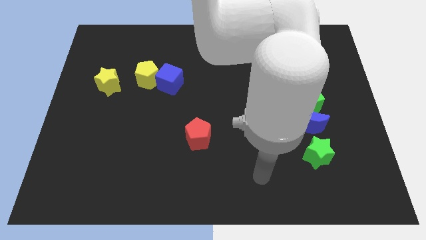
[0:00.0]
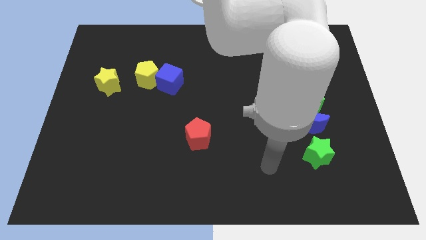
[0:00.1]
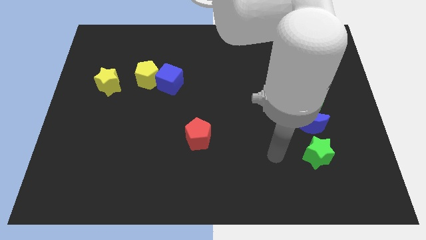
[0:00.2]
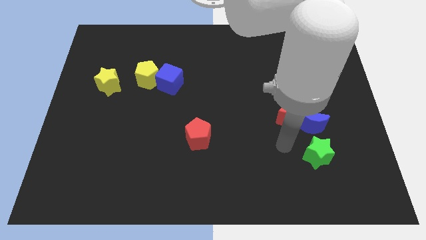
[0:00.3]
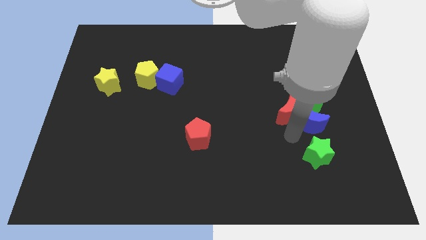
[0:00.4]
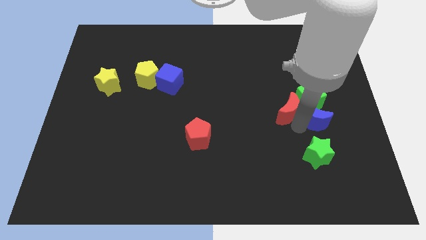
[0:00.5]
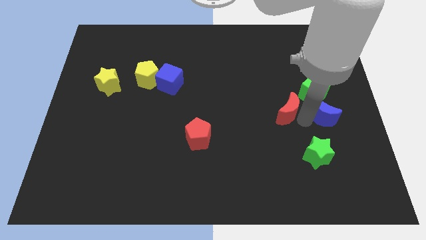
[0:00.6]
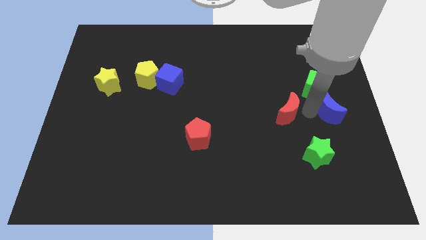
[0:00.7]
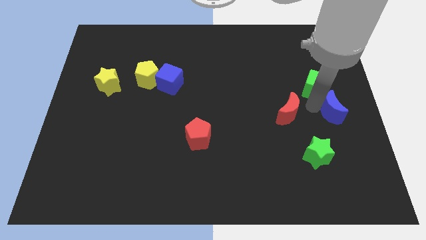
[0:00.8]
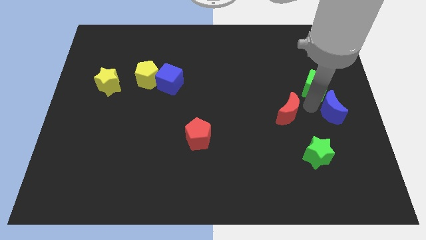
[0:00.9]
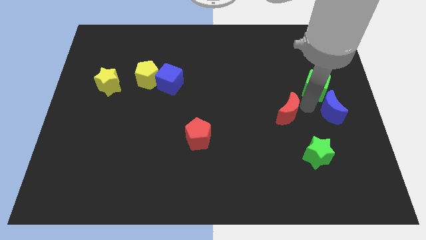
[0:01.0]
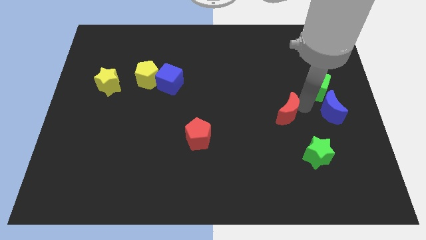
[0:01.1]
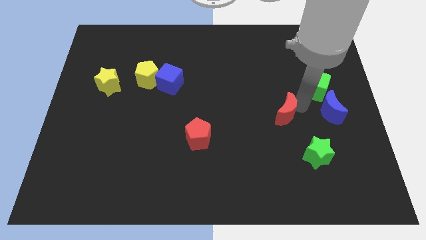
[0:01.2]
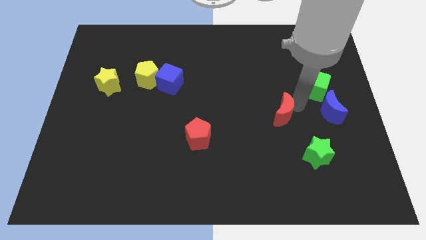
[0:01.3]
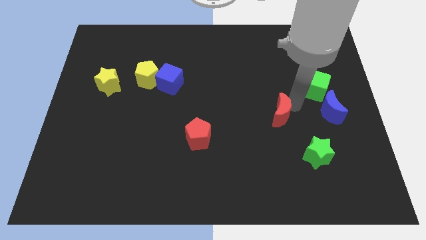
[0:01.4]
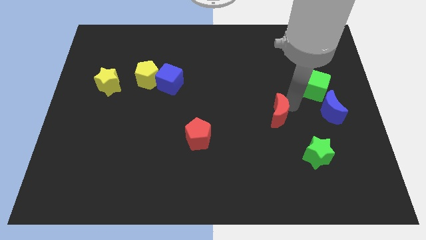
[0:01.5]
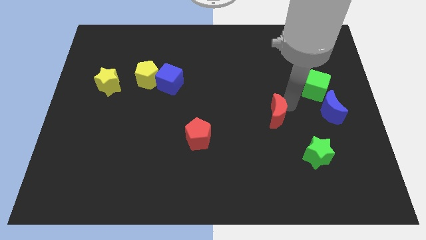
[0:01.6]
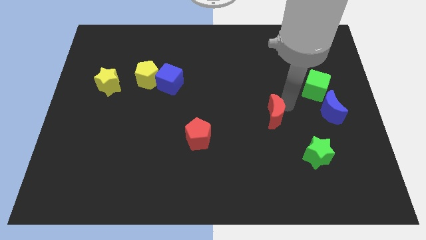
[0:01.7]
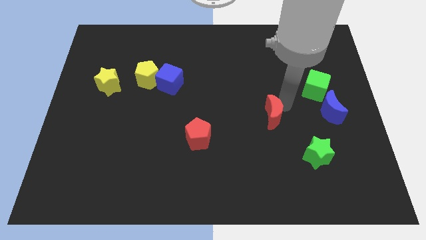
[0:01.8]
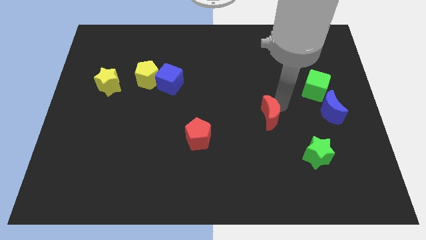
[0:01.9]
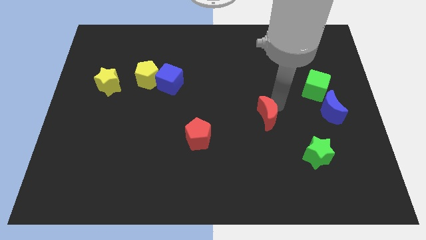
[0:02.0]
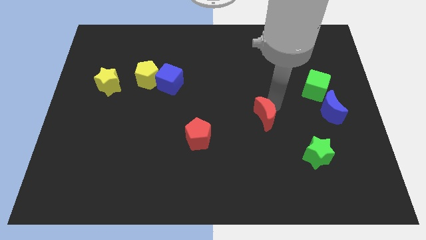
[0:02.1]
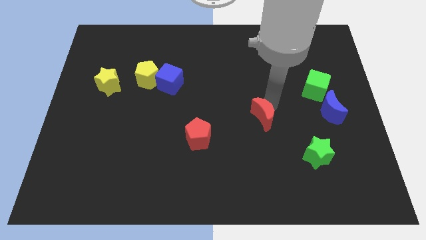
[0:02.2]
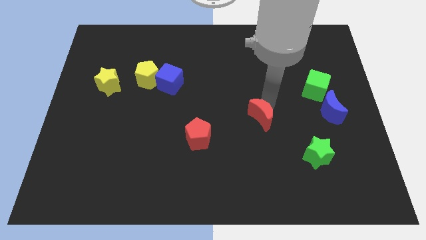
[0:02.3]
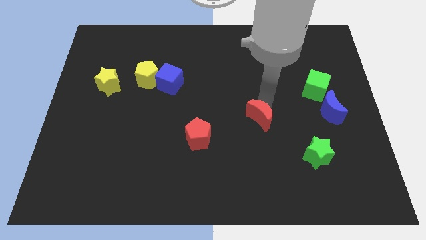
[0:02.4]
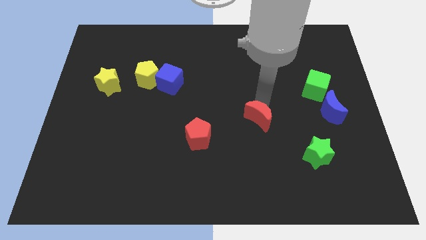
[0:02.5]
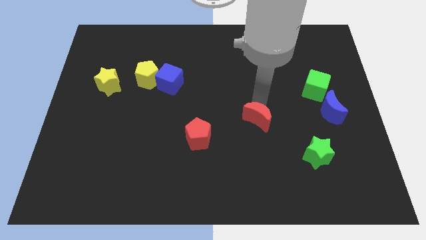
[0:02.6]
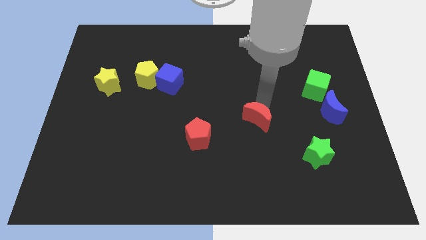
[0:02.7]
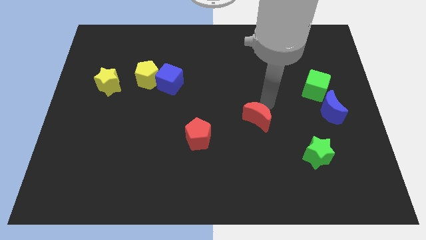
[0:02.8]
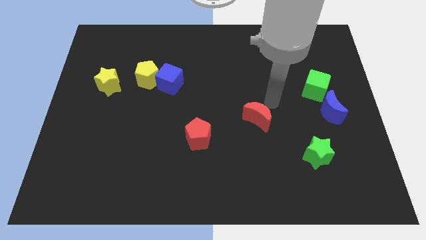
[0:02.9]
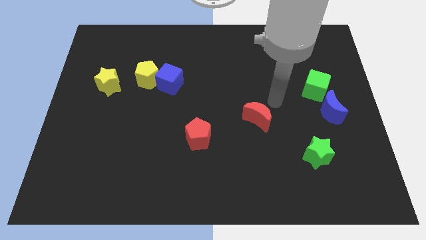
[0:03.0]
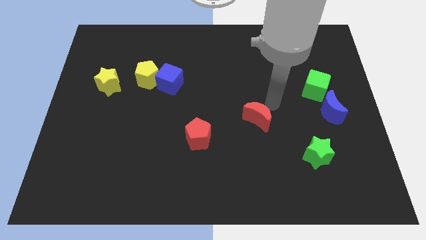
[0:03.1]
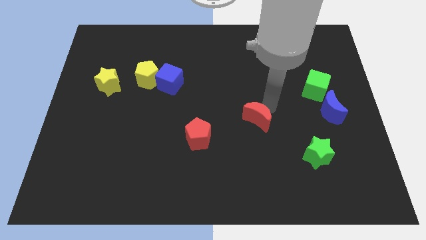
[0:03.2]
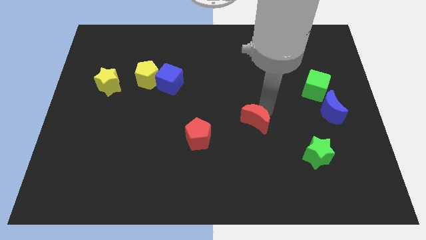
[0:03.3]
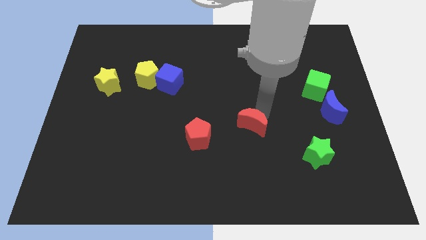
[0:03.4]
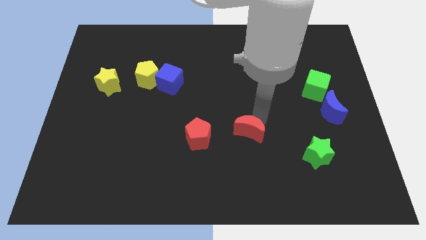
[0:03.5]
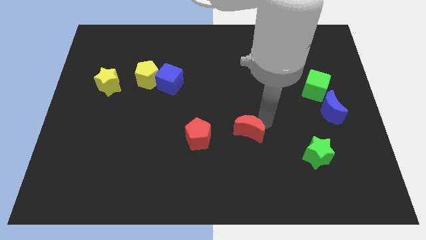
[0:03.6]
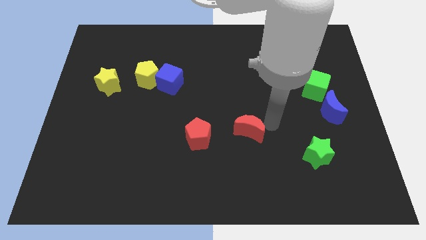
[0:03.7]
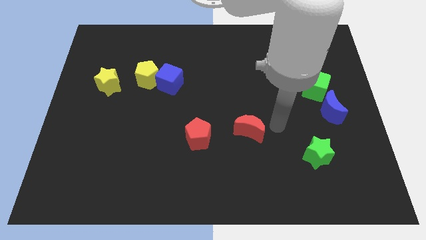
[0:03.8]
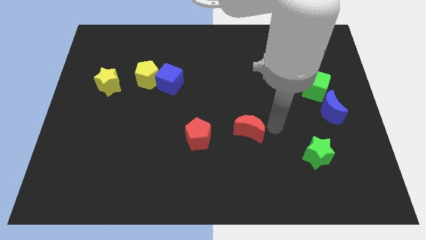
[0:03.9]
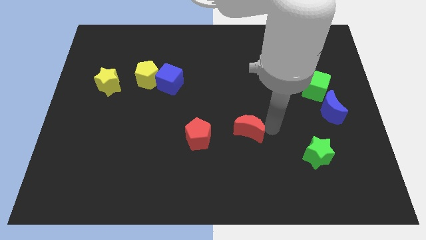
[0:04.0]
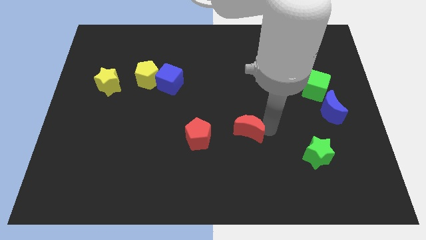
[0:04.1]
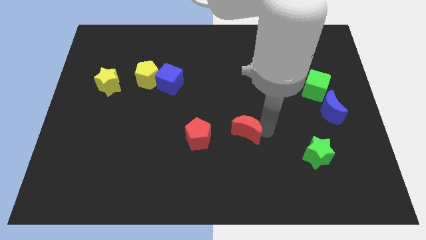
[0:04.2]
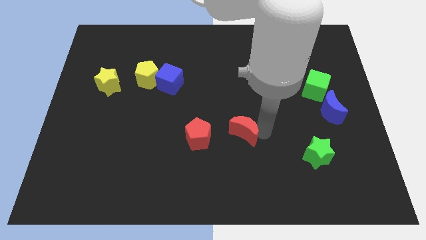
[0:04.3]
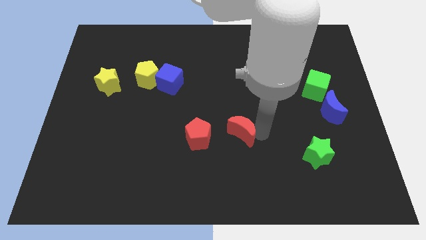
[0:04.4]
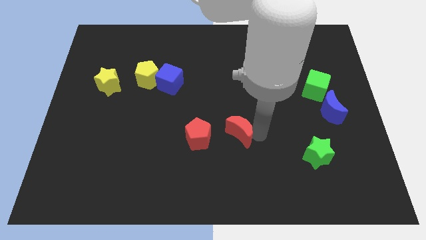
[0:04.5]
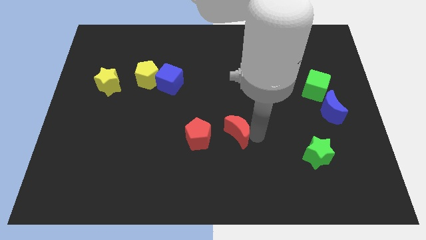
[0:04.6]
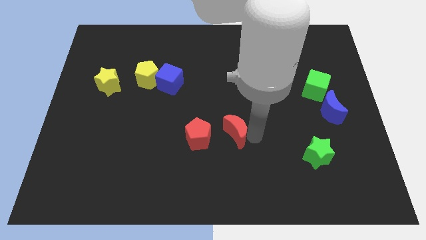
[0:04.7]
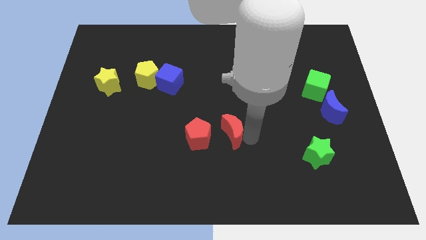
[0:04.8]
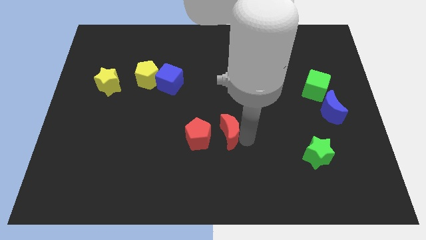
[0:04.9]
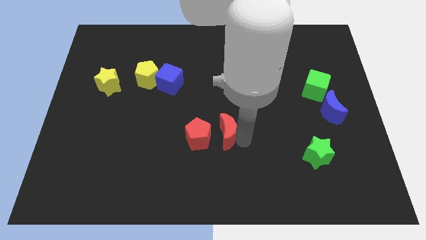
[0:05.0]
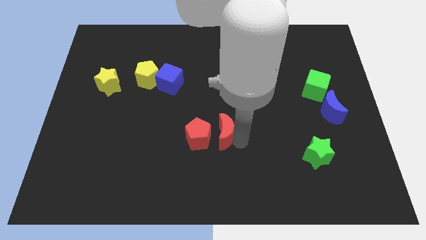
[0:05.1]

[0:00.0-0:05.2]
slide the red moon close to the red pentagon

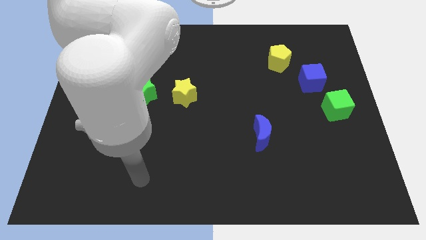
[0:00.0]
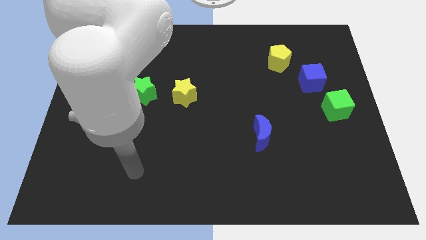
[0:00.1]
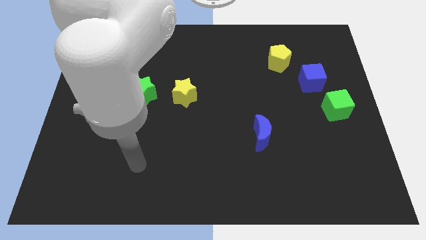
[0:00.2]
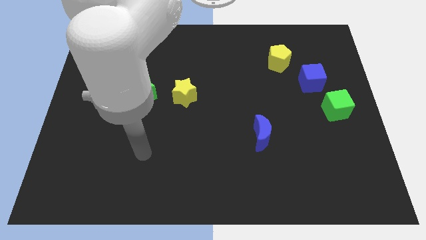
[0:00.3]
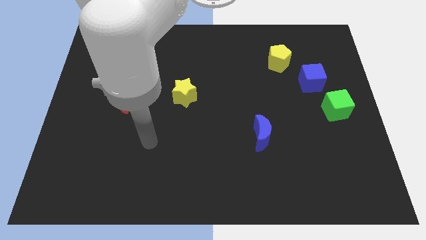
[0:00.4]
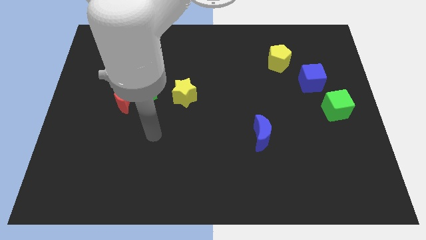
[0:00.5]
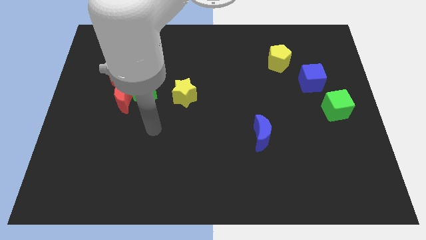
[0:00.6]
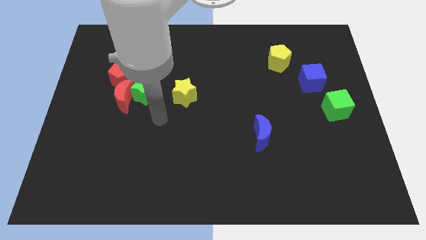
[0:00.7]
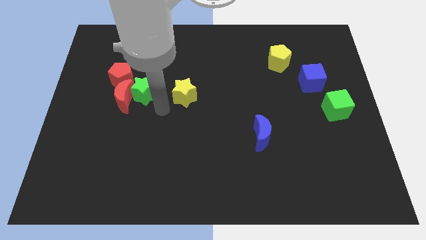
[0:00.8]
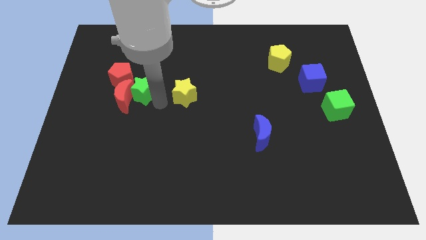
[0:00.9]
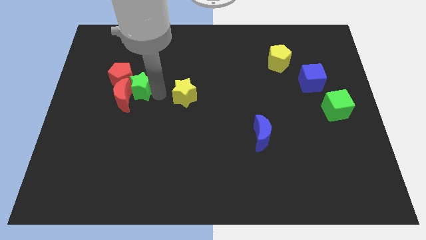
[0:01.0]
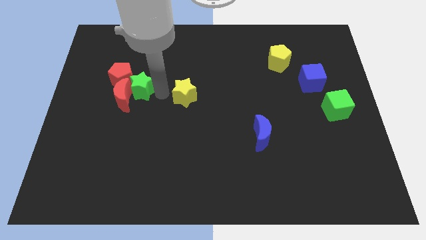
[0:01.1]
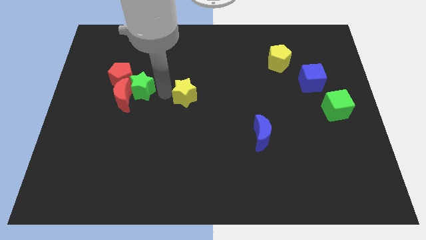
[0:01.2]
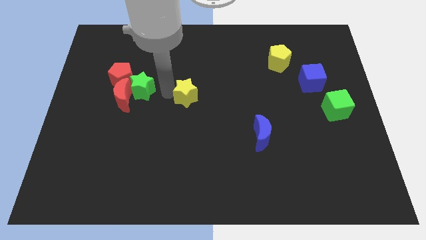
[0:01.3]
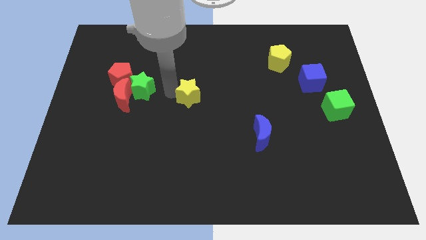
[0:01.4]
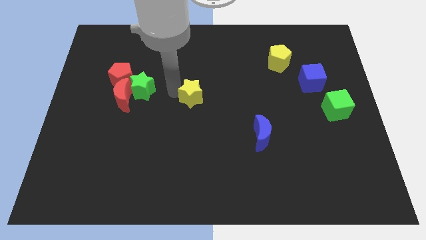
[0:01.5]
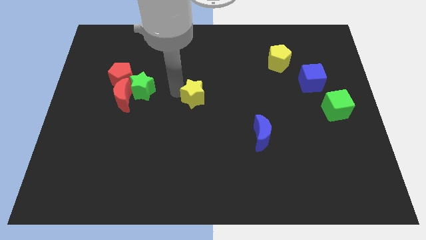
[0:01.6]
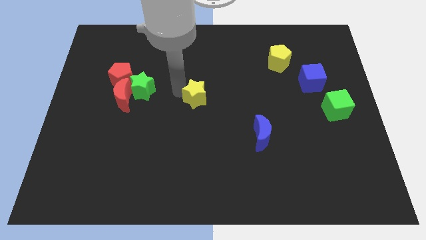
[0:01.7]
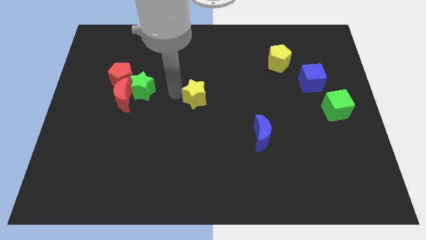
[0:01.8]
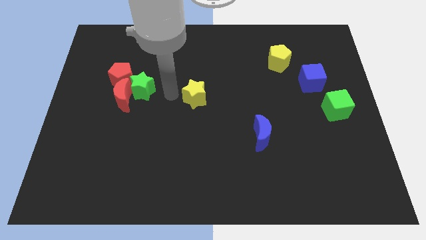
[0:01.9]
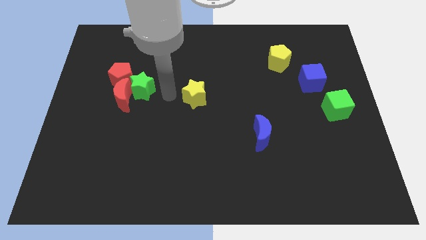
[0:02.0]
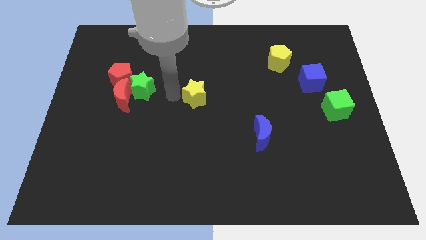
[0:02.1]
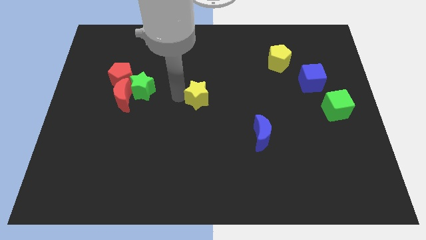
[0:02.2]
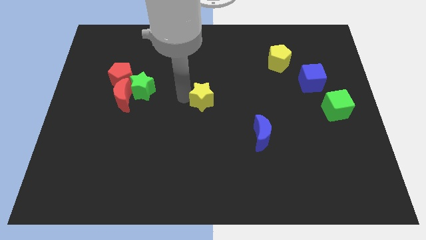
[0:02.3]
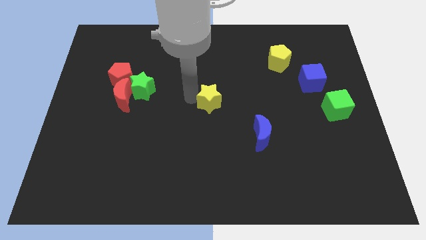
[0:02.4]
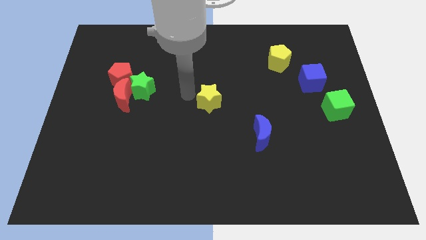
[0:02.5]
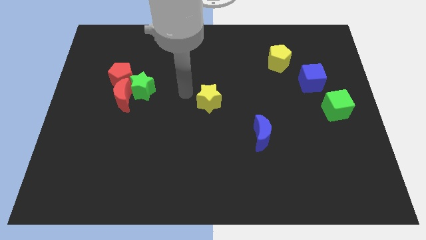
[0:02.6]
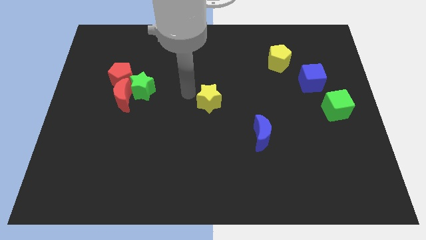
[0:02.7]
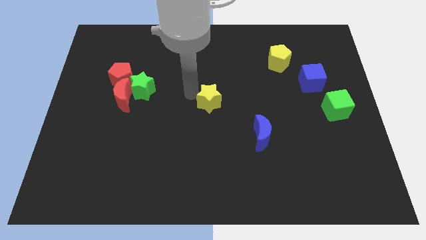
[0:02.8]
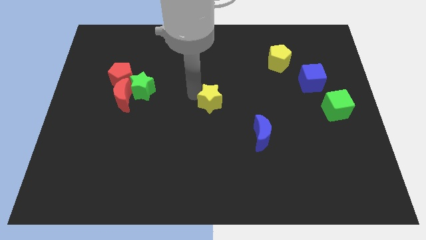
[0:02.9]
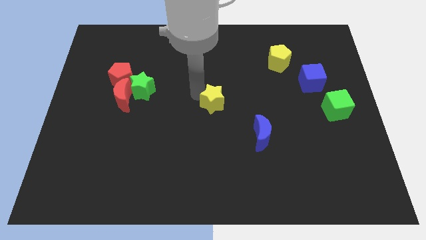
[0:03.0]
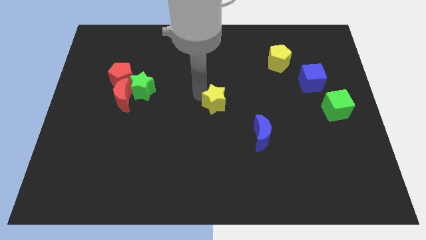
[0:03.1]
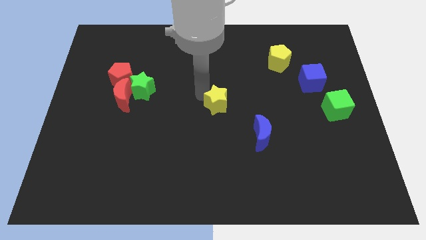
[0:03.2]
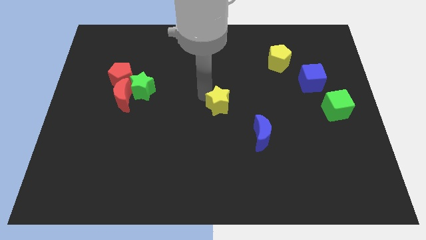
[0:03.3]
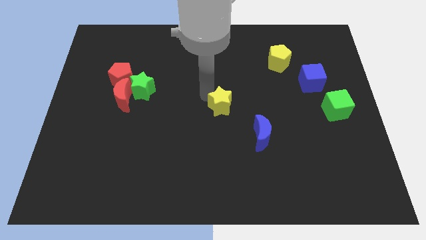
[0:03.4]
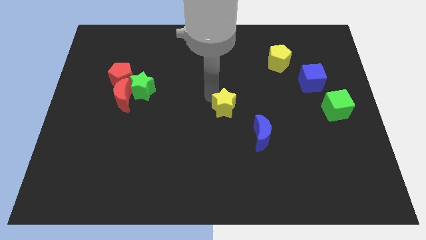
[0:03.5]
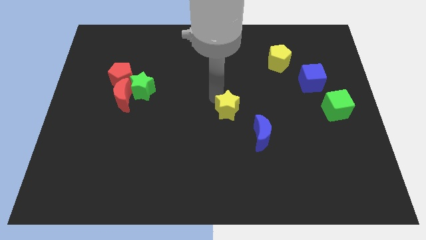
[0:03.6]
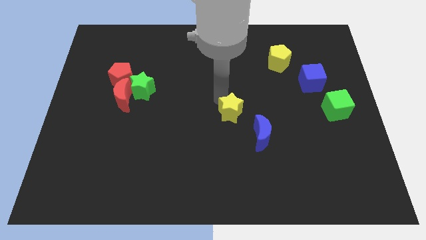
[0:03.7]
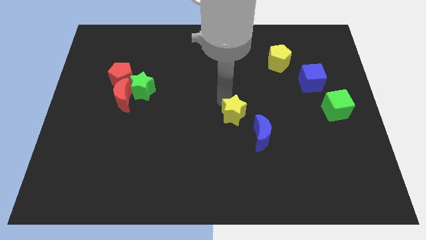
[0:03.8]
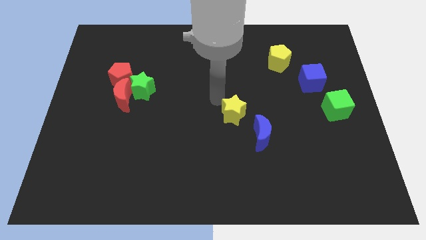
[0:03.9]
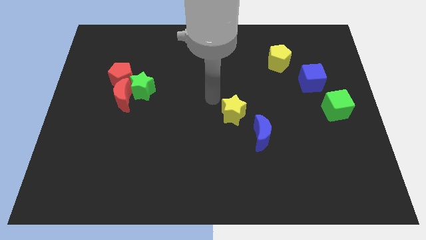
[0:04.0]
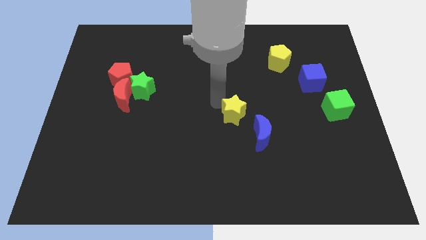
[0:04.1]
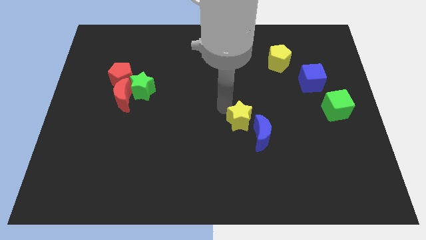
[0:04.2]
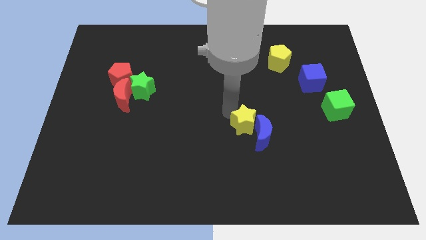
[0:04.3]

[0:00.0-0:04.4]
push the yellow star close to the blue moon
